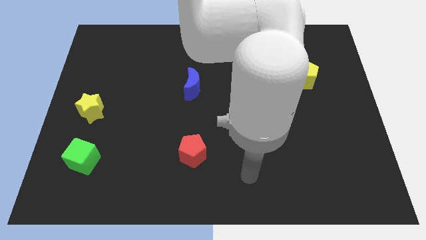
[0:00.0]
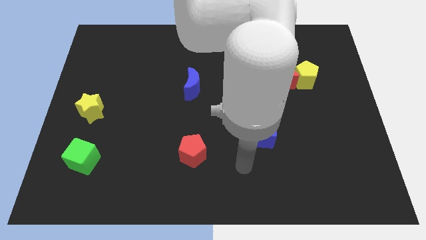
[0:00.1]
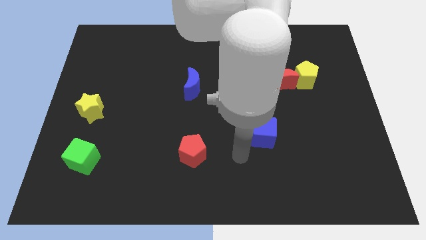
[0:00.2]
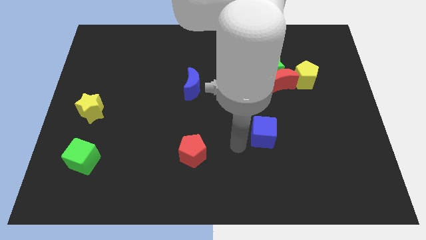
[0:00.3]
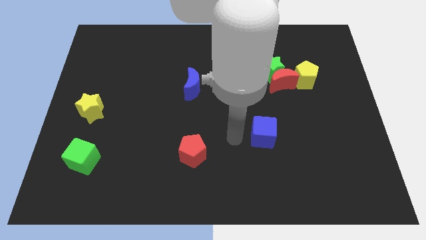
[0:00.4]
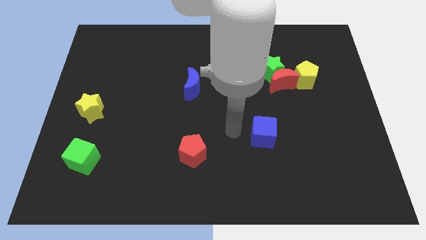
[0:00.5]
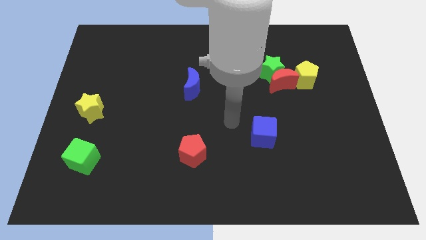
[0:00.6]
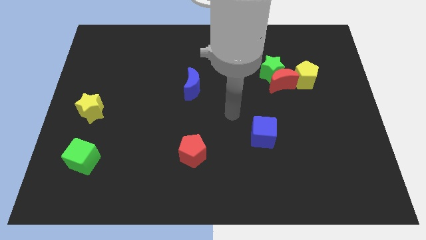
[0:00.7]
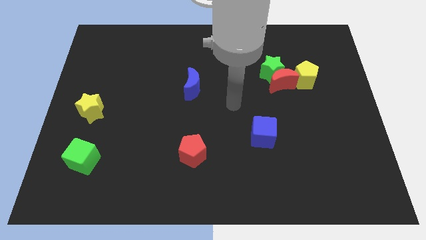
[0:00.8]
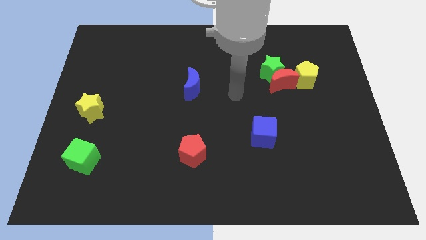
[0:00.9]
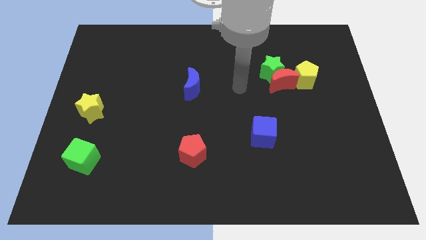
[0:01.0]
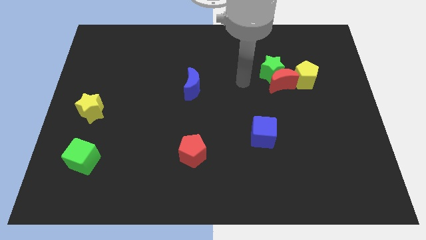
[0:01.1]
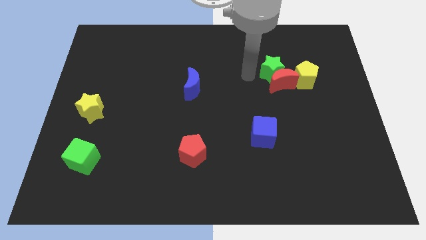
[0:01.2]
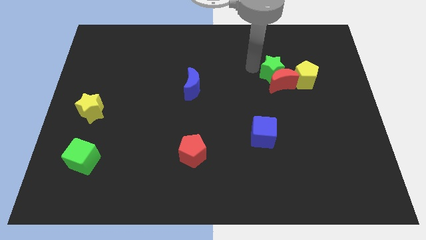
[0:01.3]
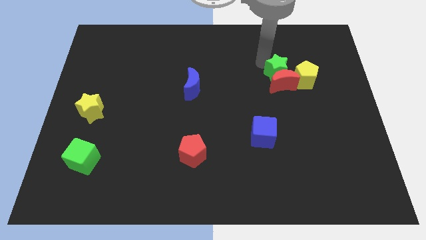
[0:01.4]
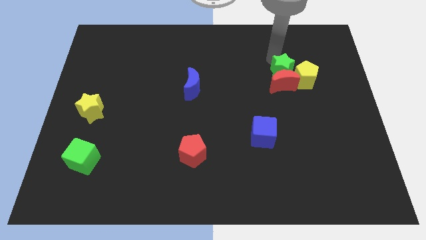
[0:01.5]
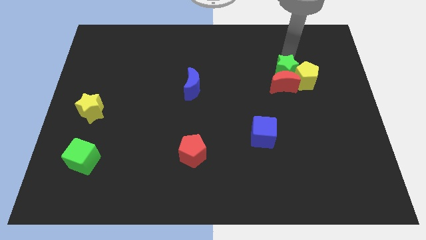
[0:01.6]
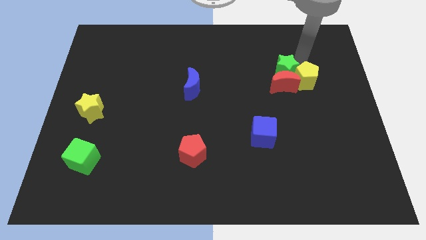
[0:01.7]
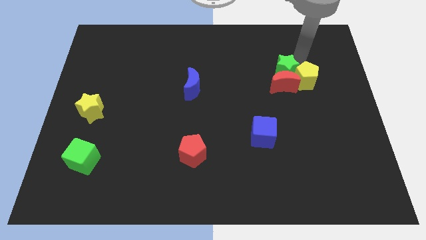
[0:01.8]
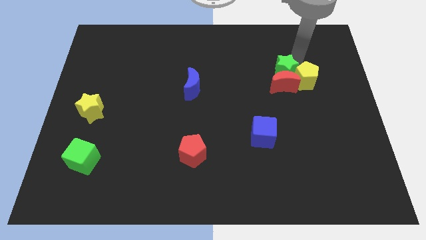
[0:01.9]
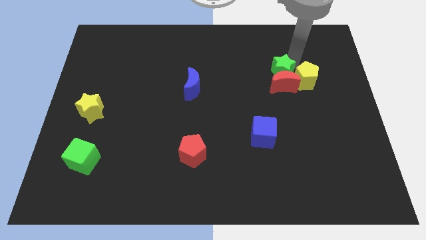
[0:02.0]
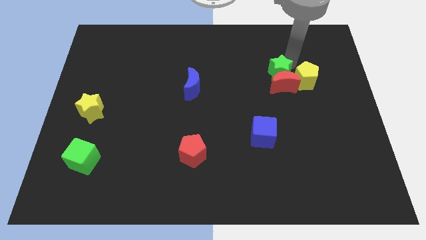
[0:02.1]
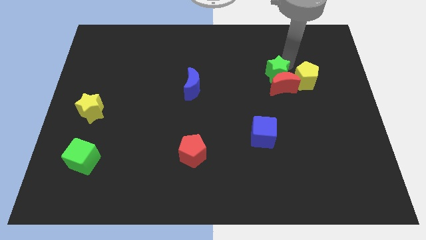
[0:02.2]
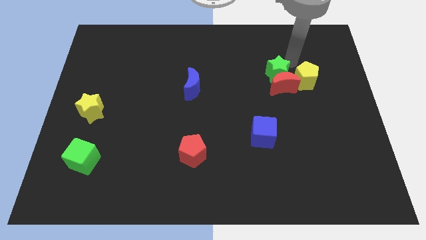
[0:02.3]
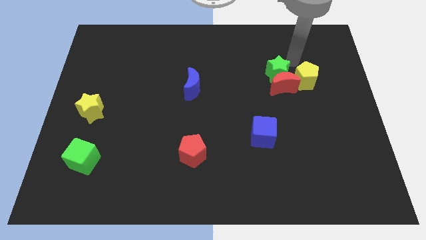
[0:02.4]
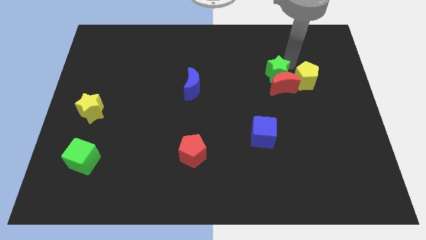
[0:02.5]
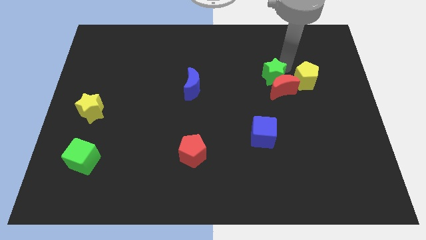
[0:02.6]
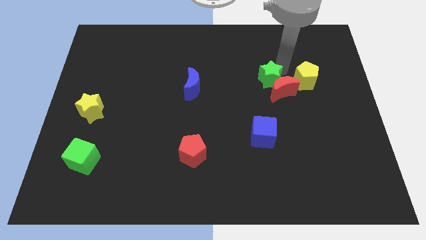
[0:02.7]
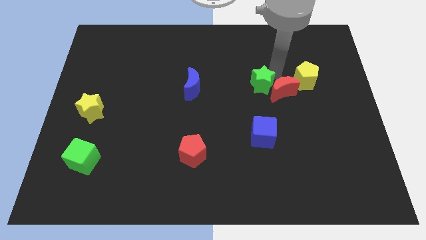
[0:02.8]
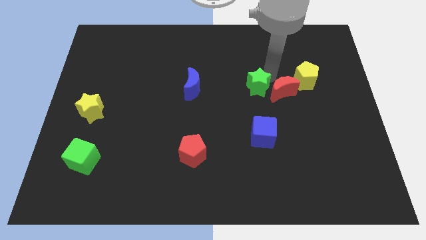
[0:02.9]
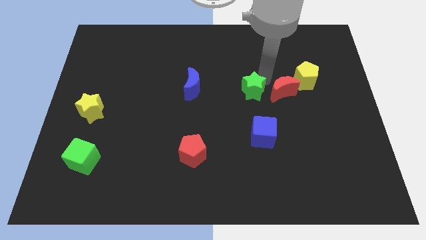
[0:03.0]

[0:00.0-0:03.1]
push the green star downwards and then left a little bit

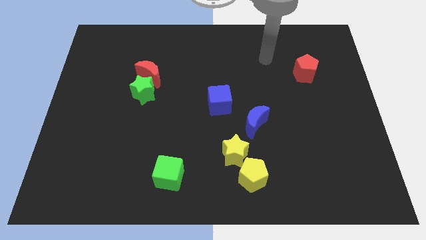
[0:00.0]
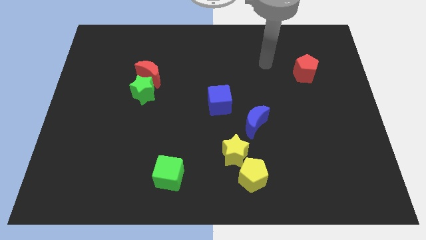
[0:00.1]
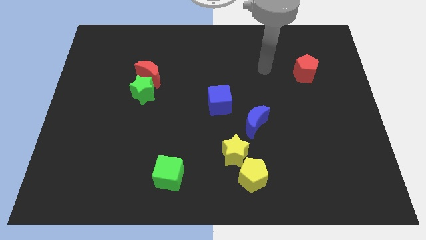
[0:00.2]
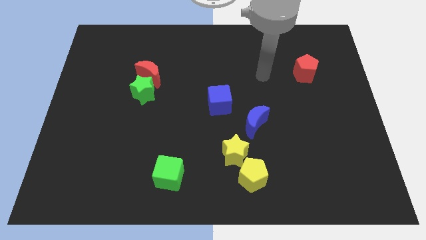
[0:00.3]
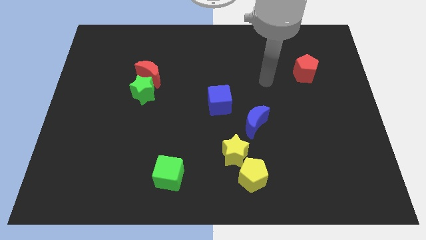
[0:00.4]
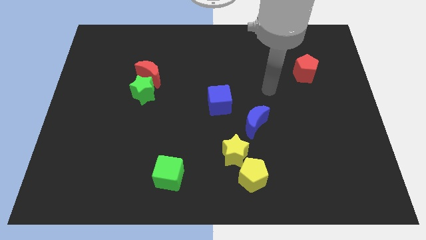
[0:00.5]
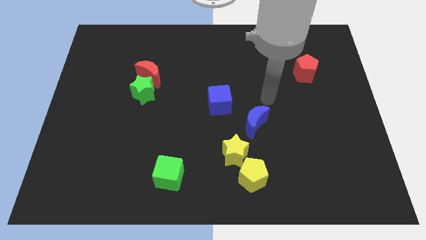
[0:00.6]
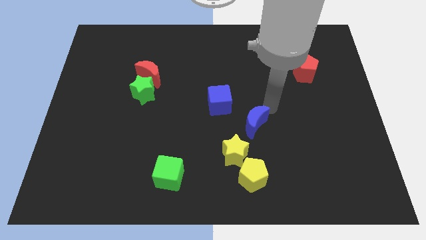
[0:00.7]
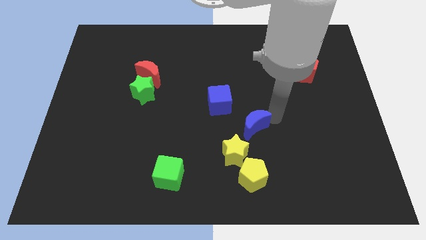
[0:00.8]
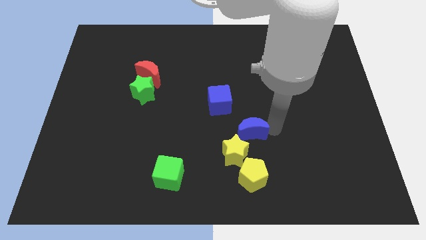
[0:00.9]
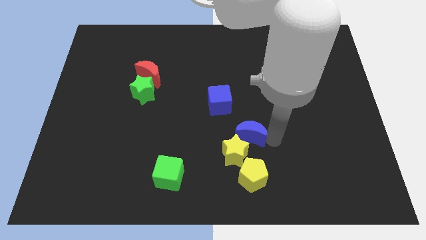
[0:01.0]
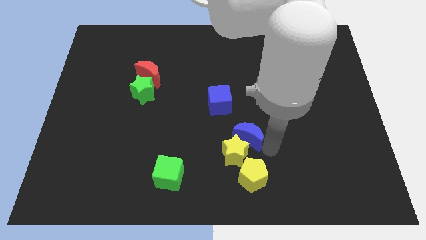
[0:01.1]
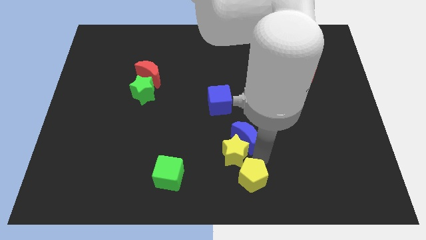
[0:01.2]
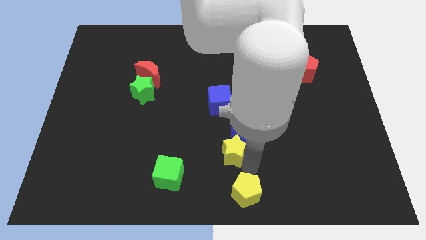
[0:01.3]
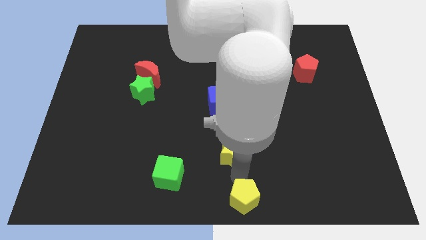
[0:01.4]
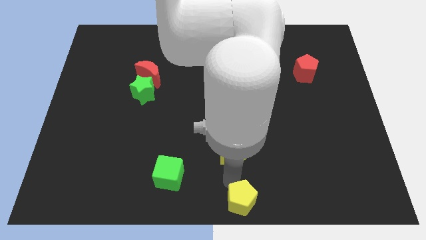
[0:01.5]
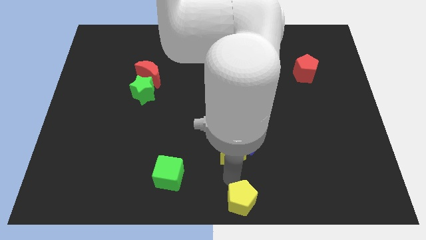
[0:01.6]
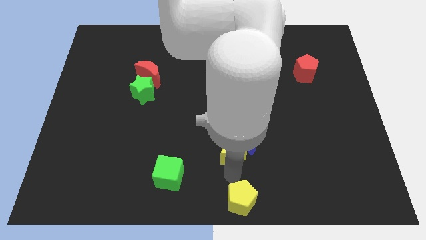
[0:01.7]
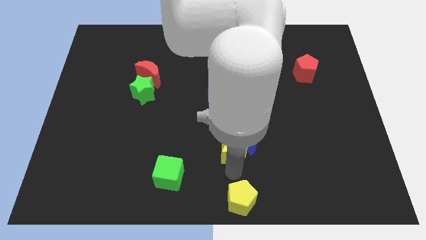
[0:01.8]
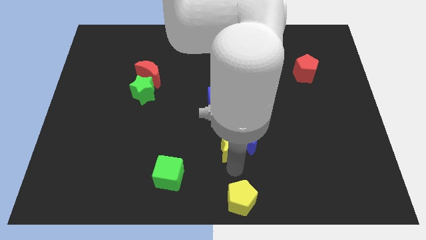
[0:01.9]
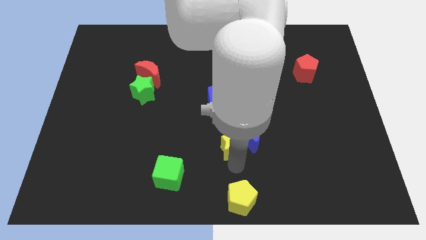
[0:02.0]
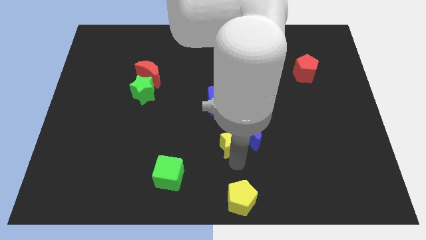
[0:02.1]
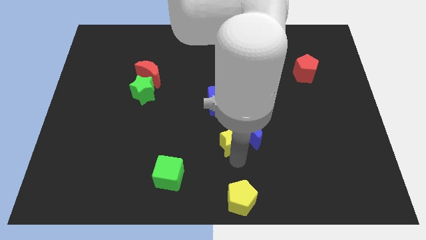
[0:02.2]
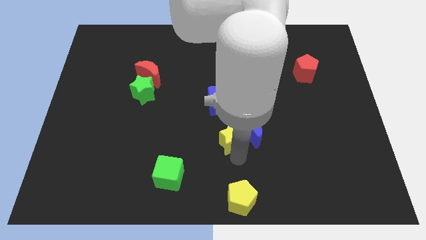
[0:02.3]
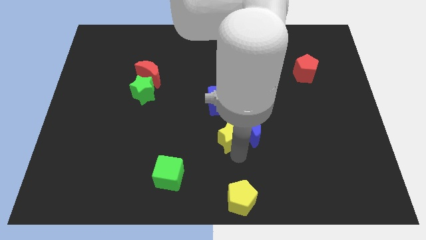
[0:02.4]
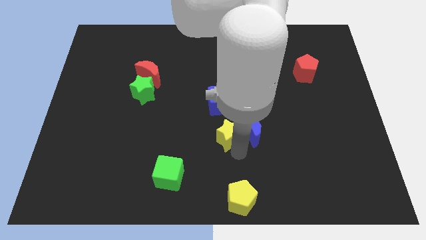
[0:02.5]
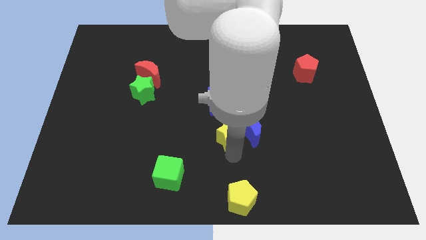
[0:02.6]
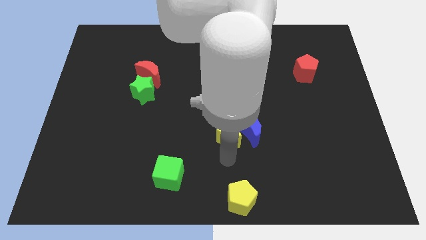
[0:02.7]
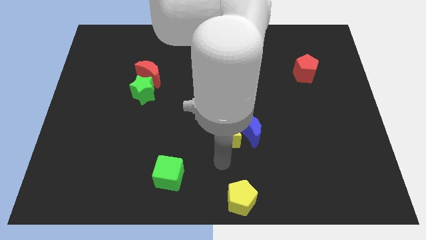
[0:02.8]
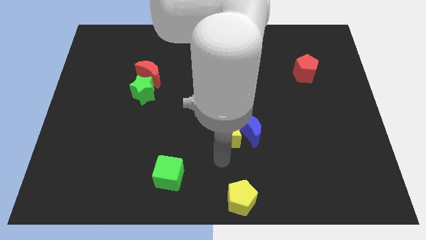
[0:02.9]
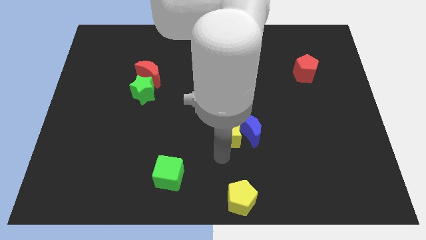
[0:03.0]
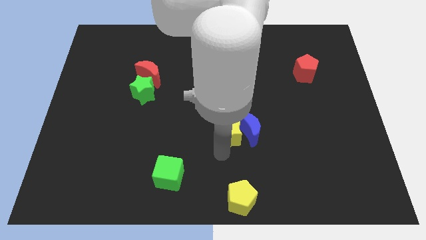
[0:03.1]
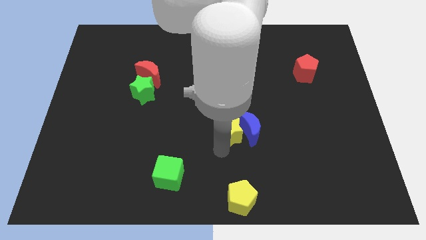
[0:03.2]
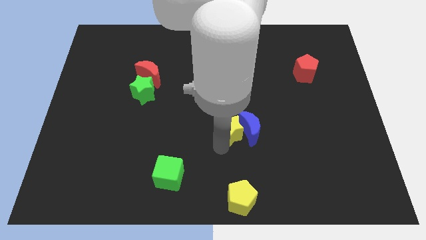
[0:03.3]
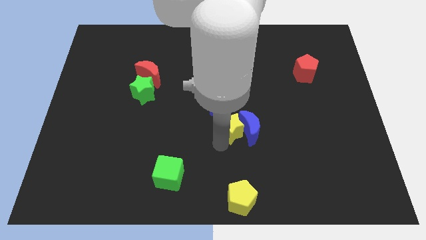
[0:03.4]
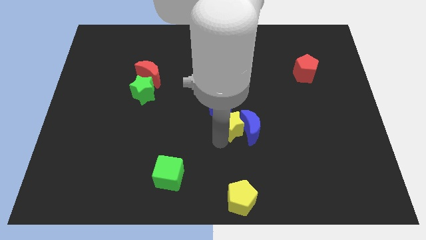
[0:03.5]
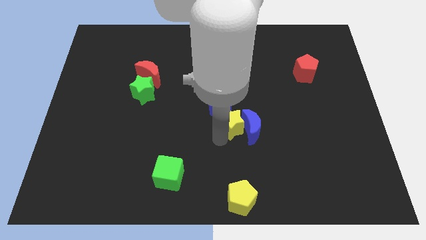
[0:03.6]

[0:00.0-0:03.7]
slide the yellow star a little bit up

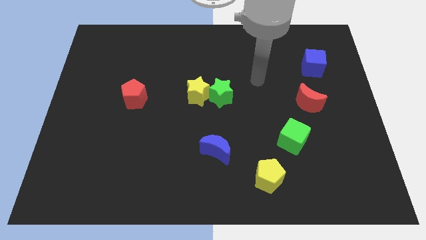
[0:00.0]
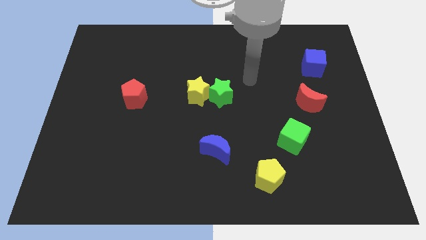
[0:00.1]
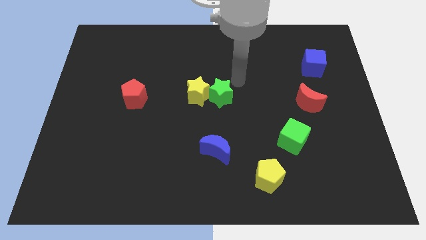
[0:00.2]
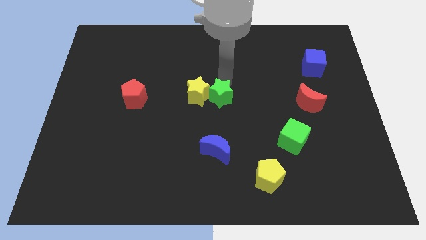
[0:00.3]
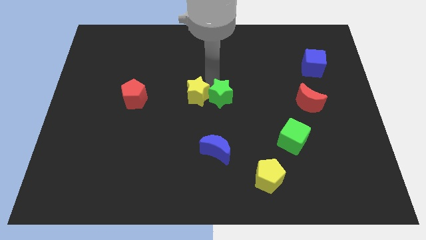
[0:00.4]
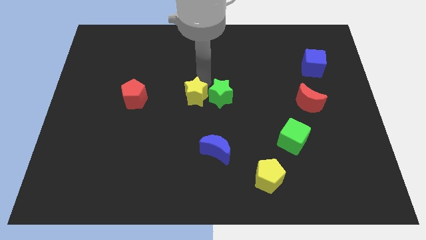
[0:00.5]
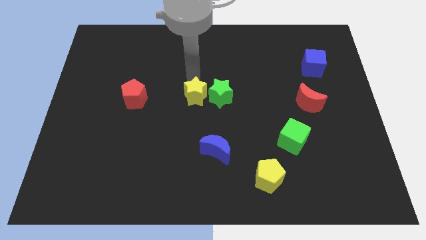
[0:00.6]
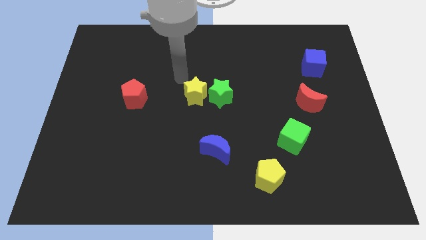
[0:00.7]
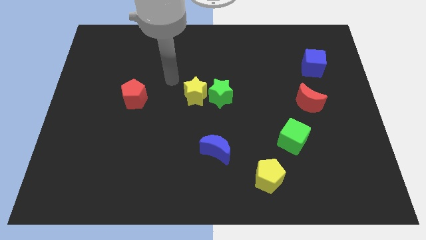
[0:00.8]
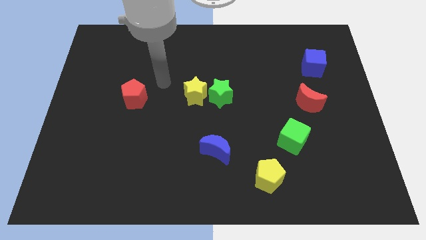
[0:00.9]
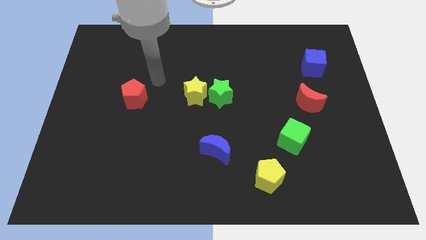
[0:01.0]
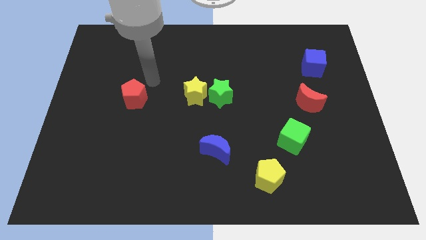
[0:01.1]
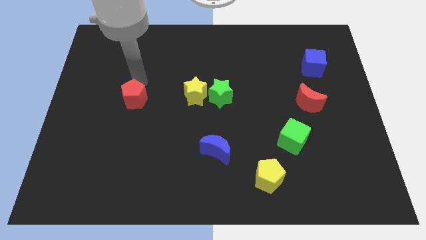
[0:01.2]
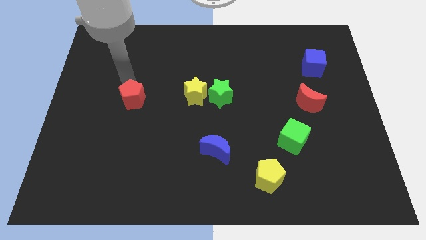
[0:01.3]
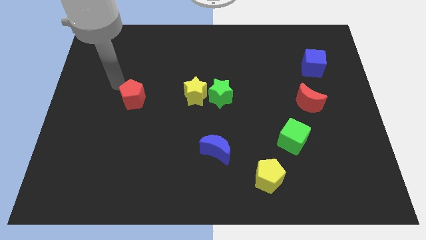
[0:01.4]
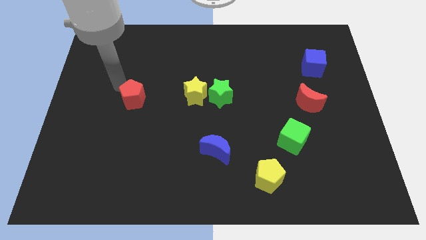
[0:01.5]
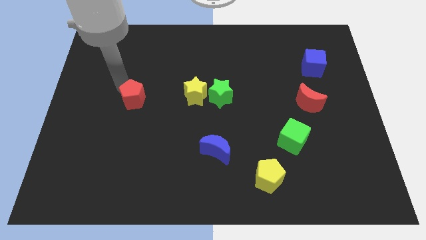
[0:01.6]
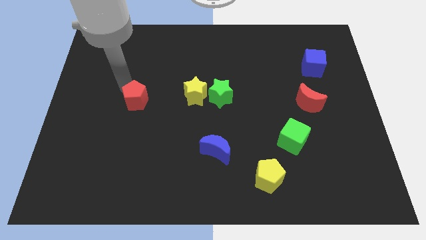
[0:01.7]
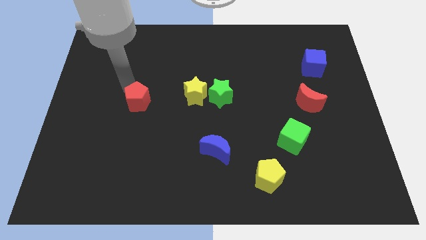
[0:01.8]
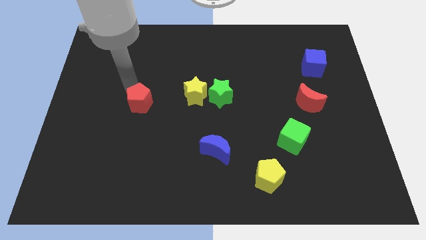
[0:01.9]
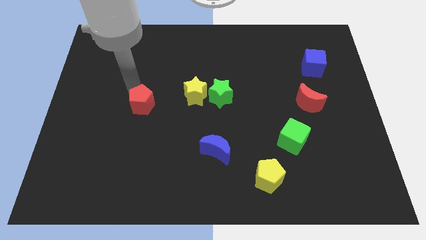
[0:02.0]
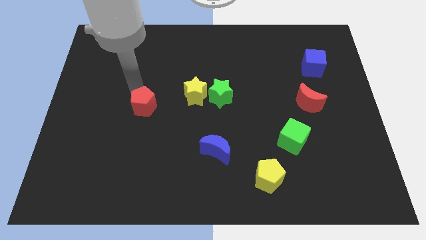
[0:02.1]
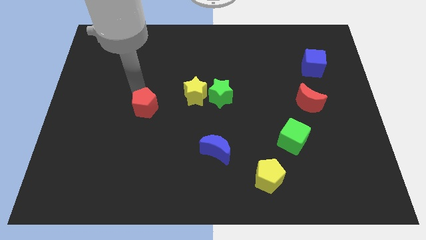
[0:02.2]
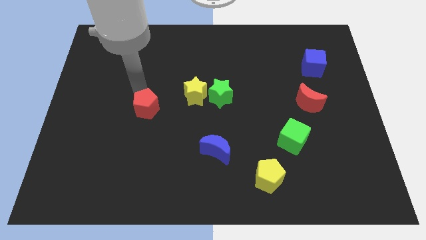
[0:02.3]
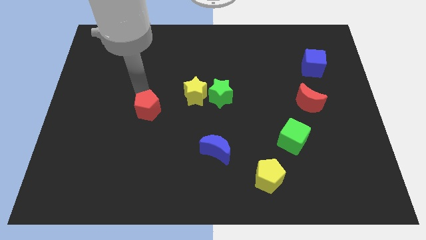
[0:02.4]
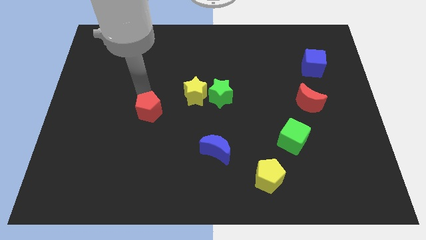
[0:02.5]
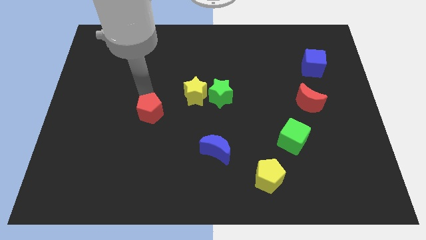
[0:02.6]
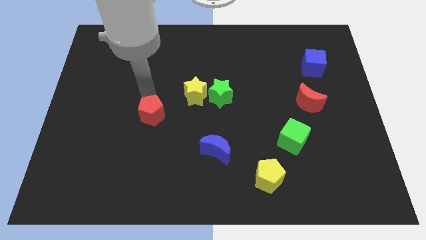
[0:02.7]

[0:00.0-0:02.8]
slightly slide the red pentagon diagonally down and right
